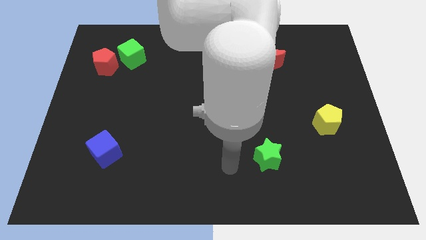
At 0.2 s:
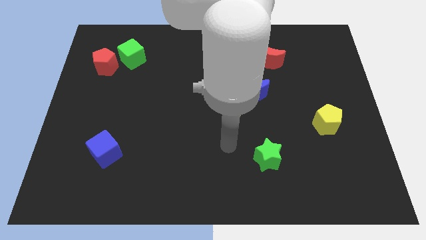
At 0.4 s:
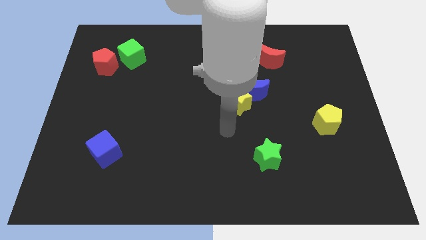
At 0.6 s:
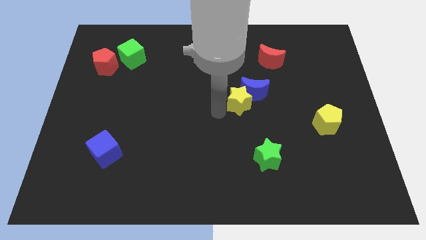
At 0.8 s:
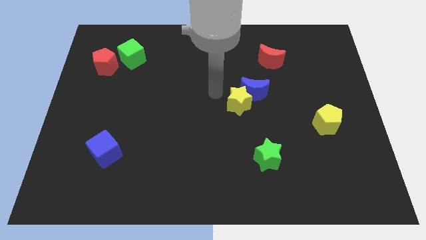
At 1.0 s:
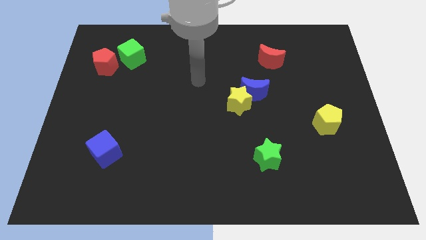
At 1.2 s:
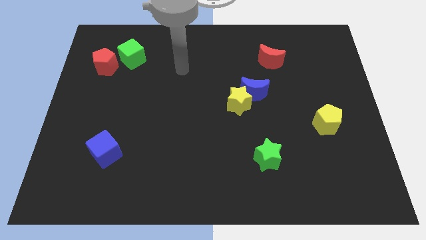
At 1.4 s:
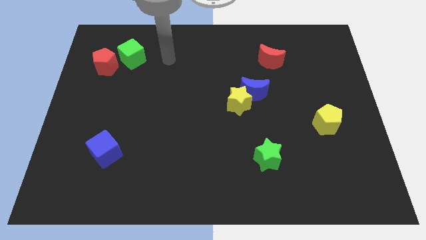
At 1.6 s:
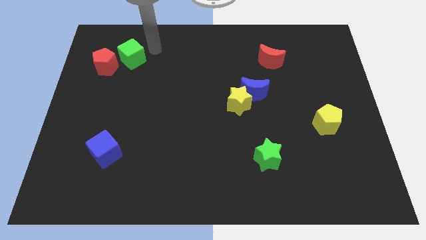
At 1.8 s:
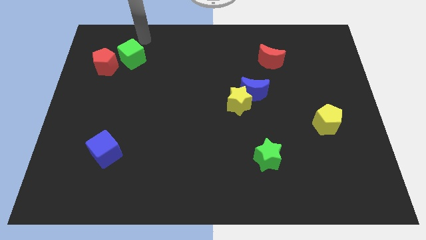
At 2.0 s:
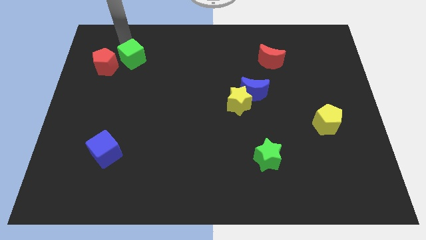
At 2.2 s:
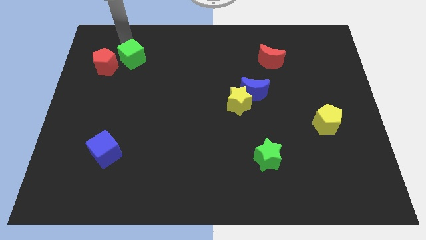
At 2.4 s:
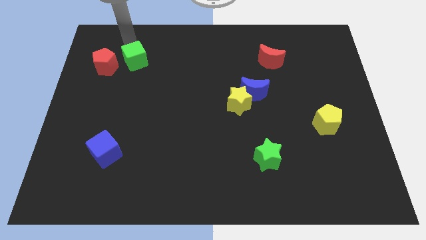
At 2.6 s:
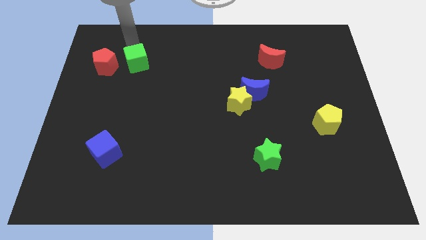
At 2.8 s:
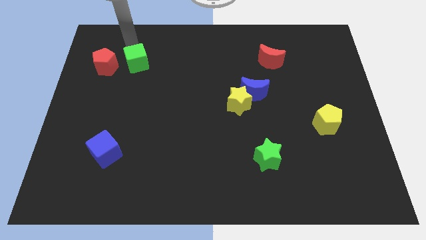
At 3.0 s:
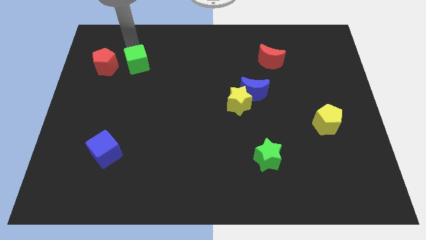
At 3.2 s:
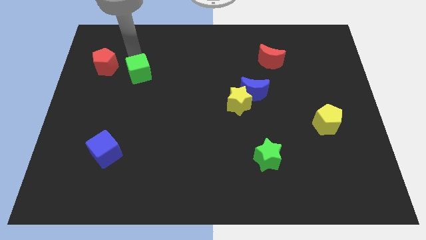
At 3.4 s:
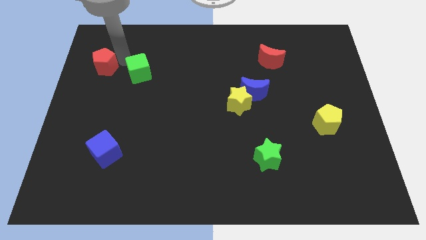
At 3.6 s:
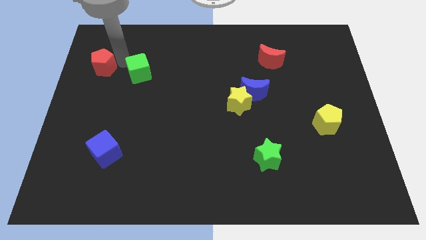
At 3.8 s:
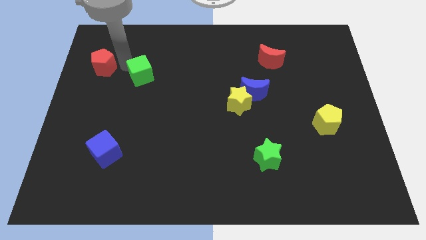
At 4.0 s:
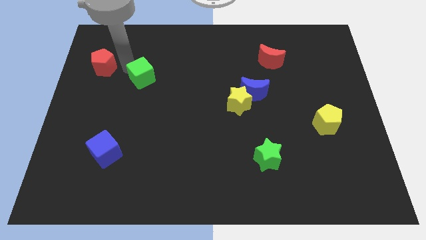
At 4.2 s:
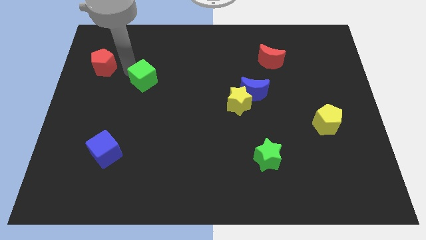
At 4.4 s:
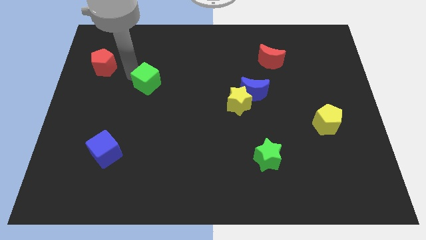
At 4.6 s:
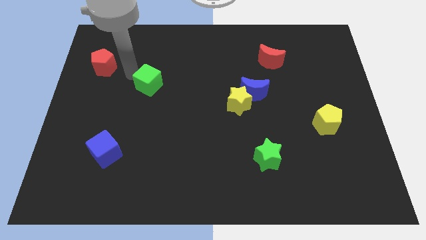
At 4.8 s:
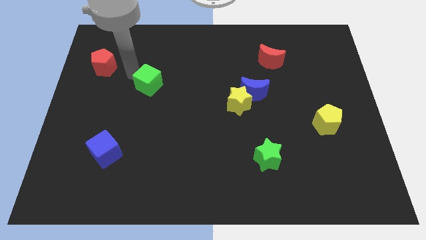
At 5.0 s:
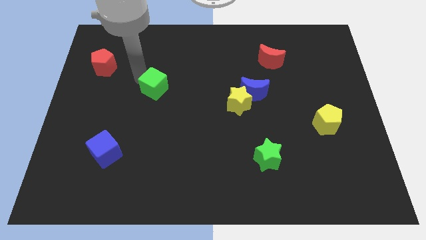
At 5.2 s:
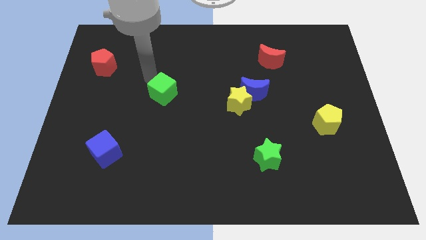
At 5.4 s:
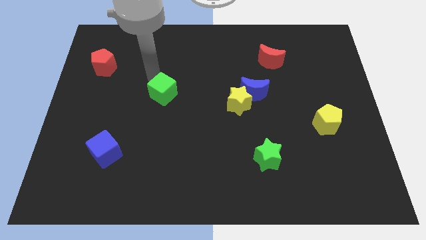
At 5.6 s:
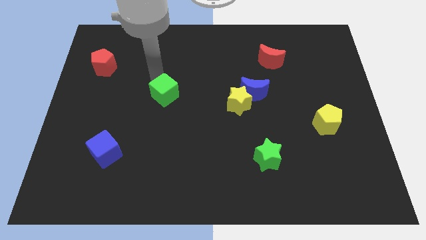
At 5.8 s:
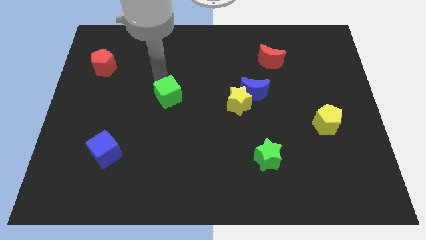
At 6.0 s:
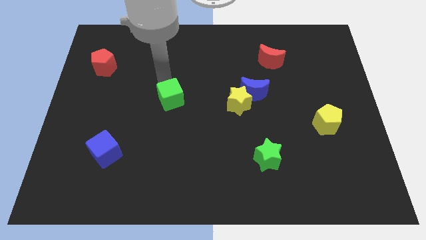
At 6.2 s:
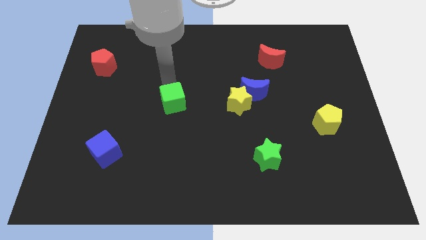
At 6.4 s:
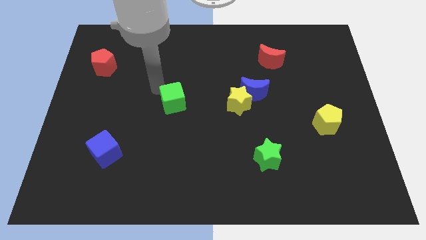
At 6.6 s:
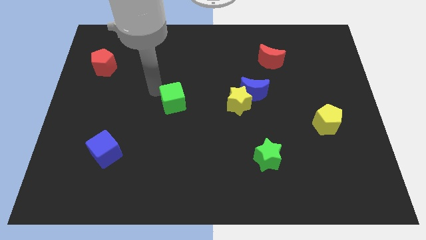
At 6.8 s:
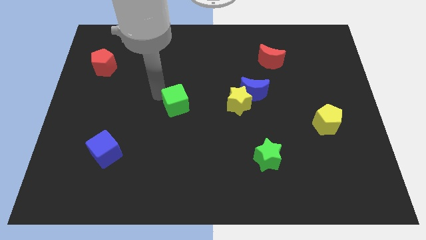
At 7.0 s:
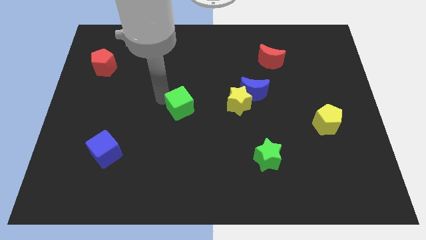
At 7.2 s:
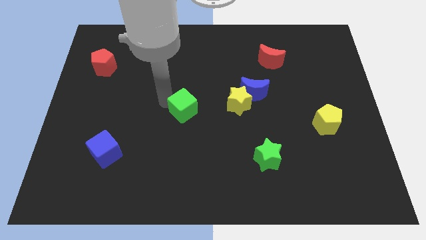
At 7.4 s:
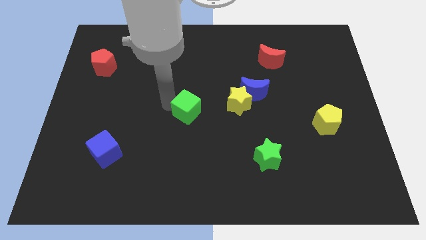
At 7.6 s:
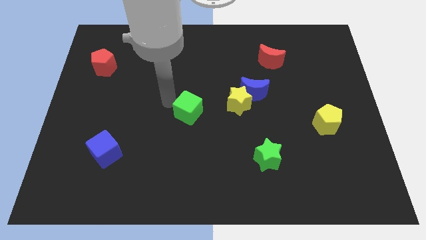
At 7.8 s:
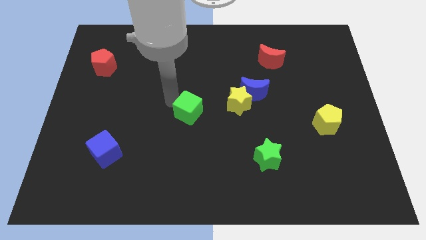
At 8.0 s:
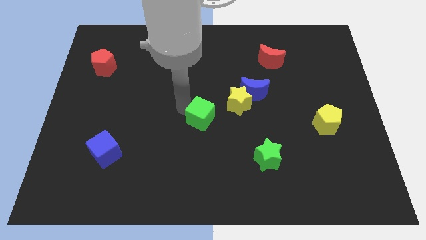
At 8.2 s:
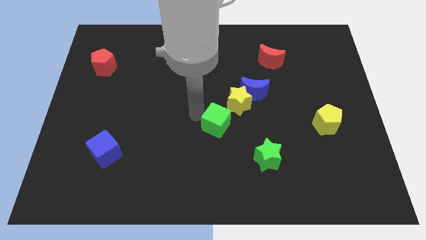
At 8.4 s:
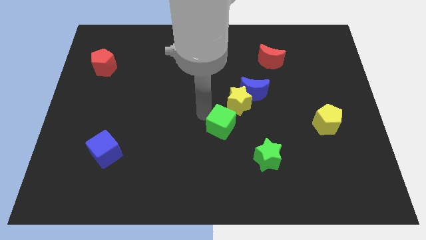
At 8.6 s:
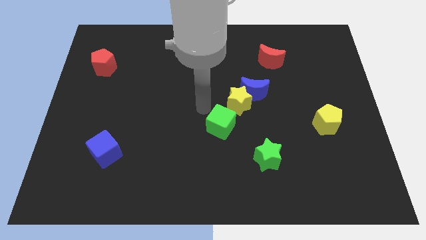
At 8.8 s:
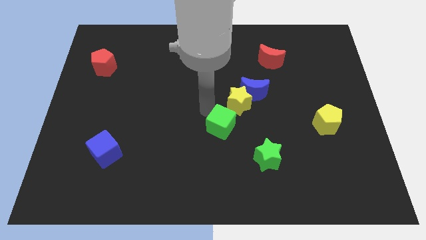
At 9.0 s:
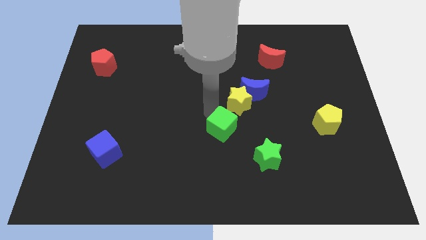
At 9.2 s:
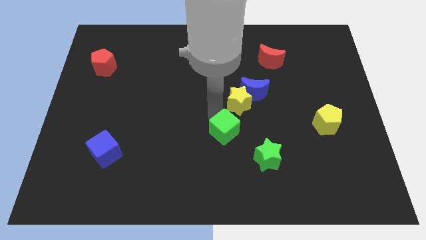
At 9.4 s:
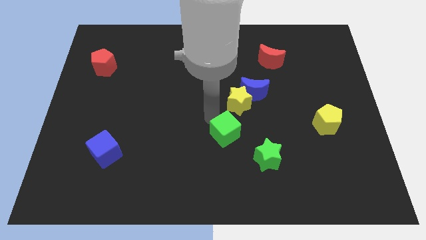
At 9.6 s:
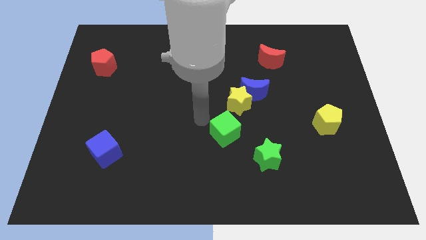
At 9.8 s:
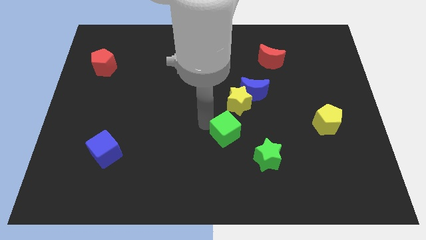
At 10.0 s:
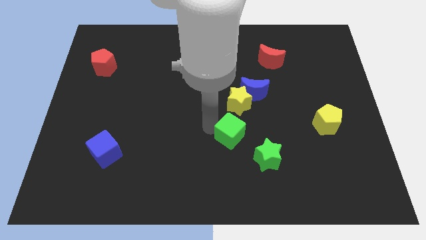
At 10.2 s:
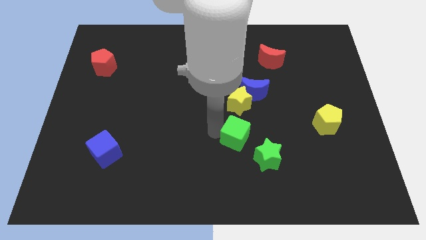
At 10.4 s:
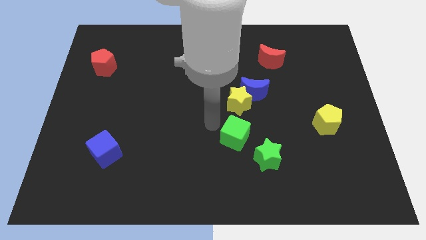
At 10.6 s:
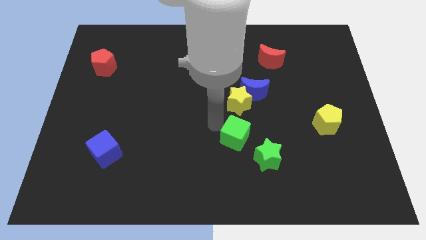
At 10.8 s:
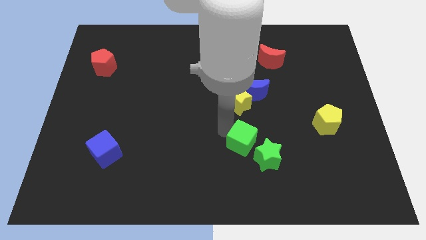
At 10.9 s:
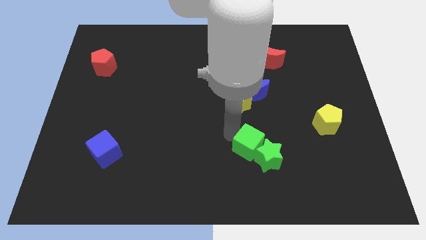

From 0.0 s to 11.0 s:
slide the green cube close to the green star

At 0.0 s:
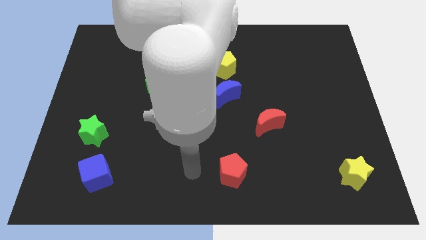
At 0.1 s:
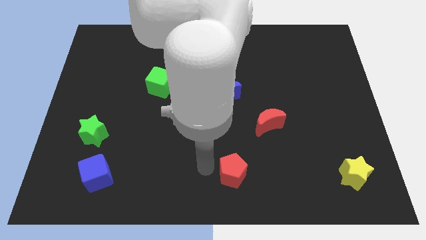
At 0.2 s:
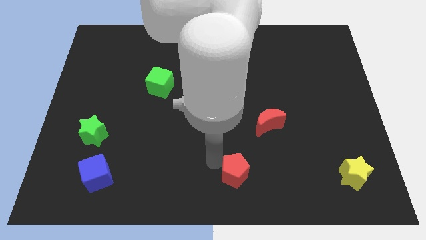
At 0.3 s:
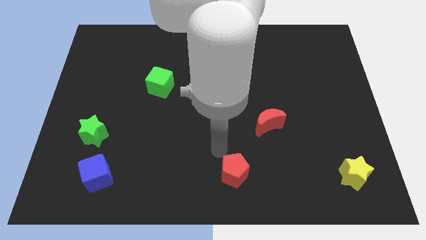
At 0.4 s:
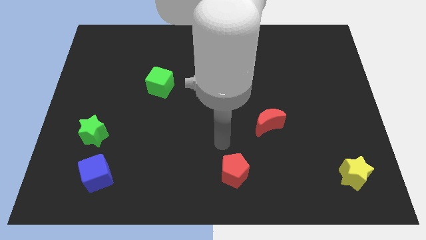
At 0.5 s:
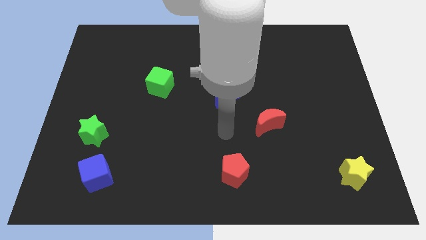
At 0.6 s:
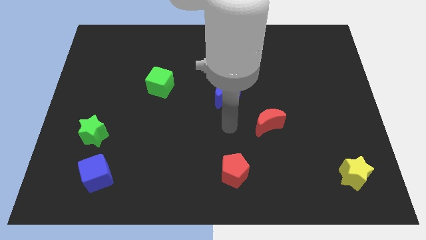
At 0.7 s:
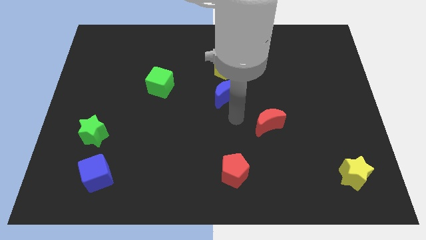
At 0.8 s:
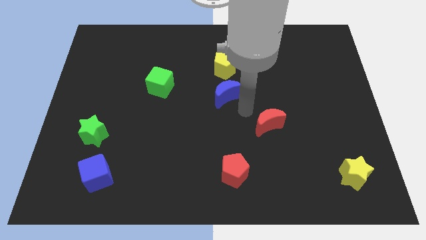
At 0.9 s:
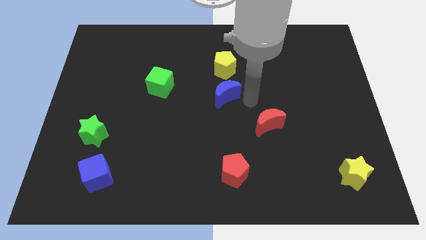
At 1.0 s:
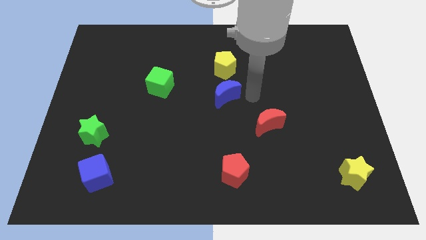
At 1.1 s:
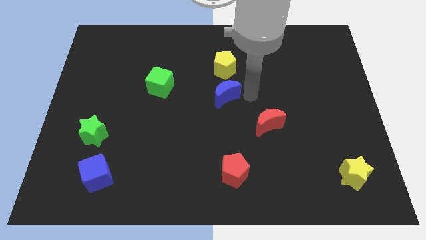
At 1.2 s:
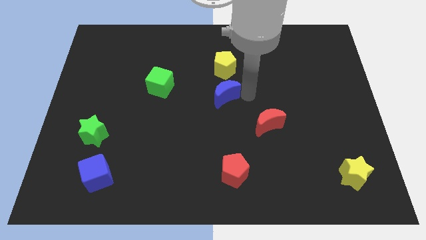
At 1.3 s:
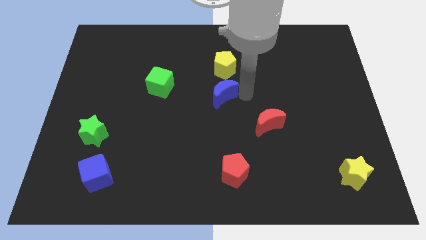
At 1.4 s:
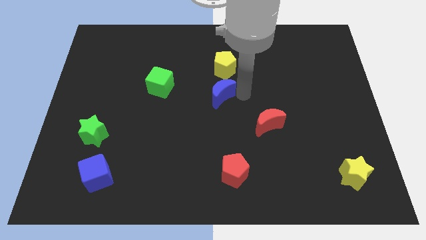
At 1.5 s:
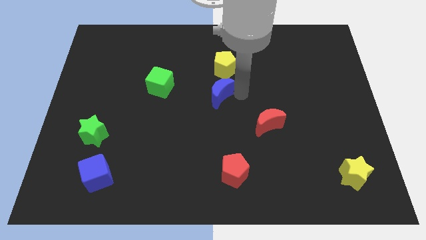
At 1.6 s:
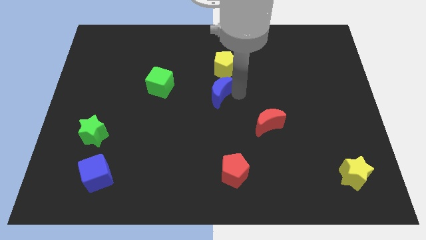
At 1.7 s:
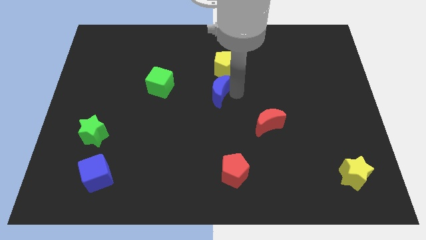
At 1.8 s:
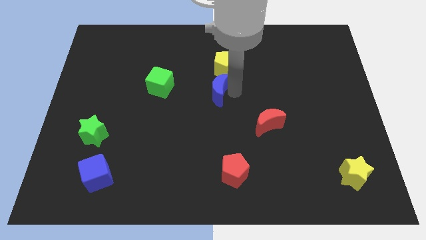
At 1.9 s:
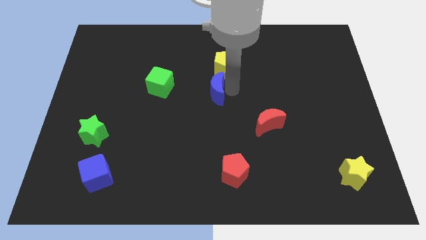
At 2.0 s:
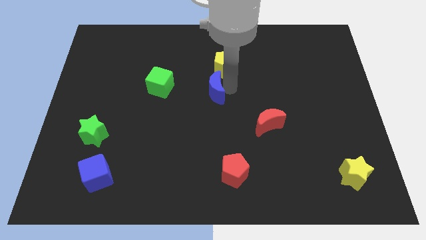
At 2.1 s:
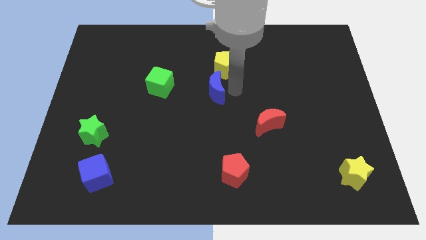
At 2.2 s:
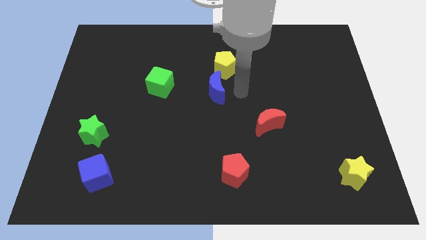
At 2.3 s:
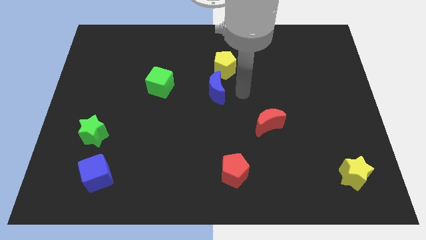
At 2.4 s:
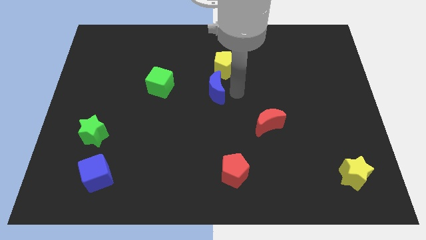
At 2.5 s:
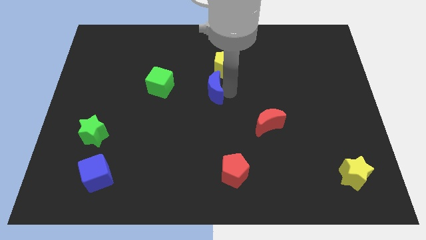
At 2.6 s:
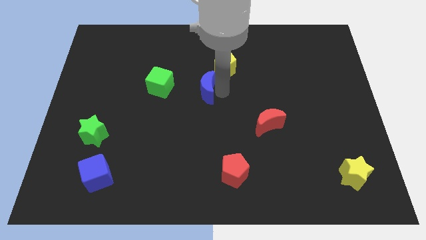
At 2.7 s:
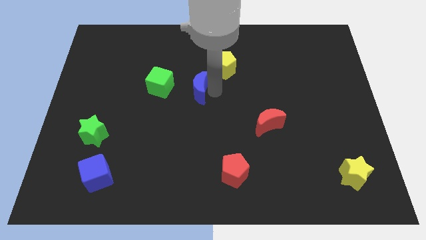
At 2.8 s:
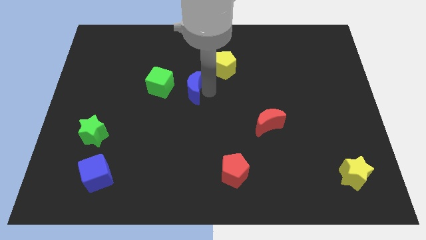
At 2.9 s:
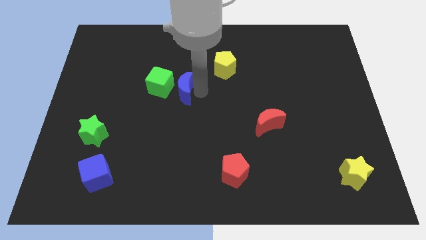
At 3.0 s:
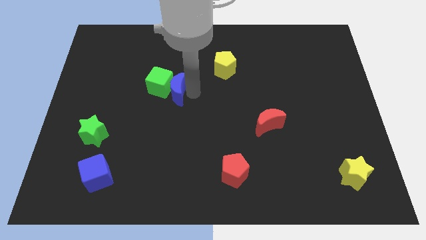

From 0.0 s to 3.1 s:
slide the blue moon close to the green cube
